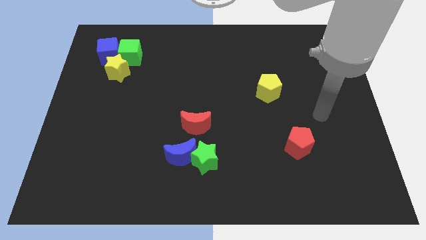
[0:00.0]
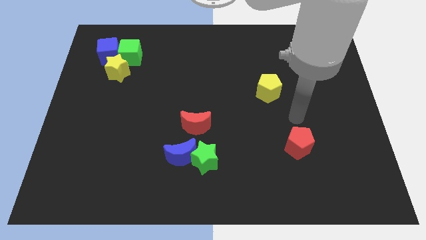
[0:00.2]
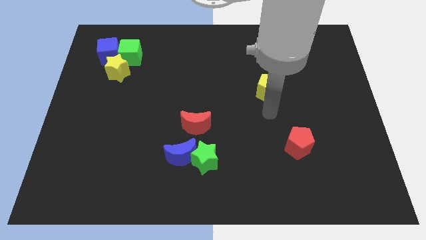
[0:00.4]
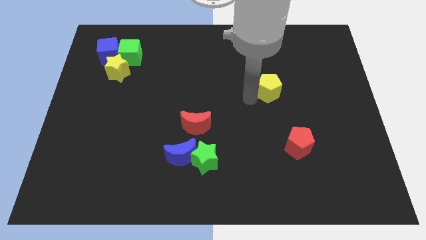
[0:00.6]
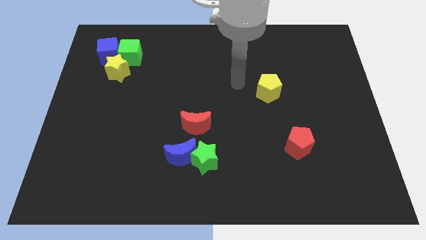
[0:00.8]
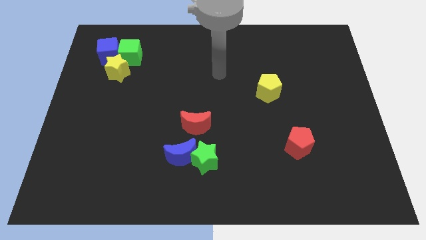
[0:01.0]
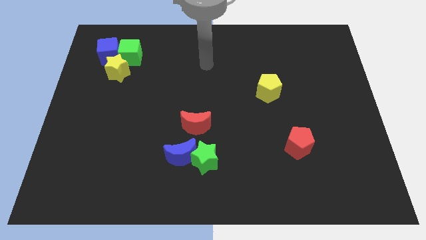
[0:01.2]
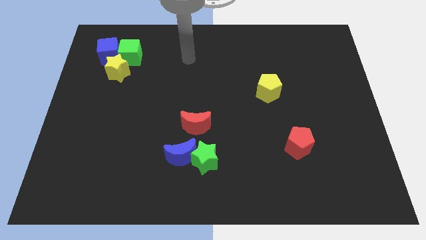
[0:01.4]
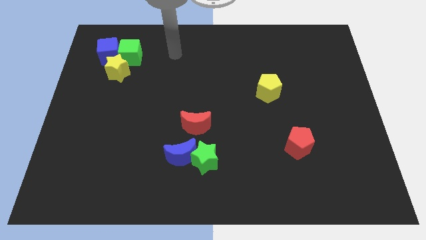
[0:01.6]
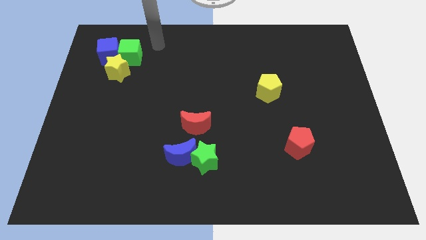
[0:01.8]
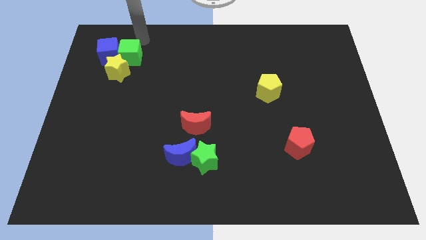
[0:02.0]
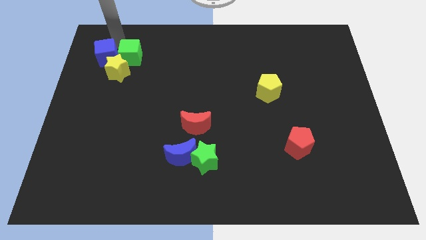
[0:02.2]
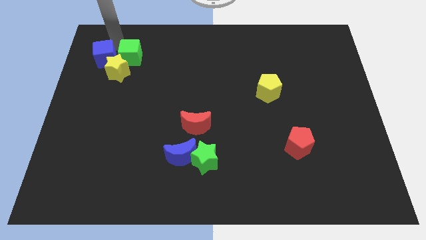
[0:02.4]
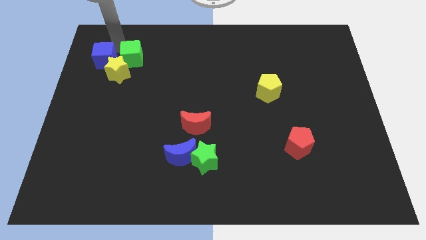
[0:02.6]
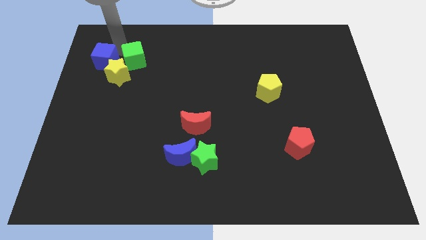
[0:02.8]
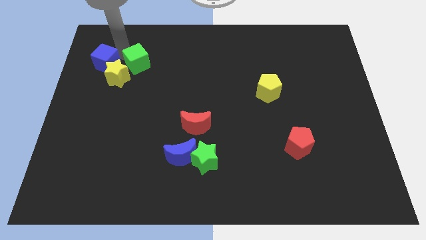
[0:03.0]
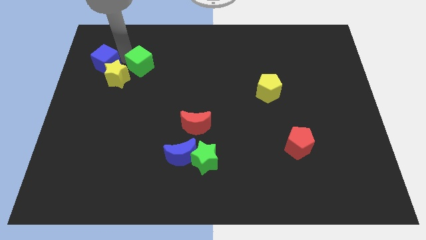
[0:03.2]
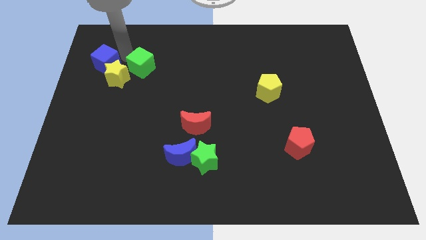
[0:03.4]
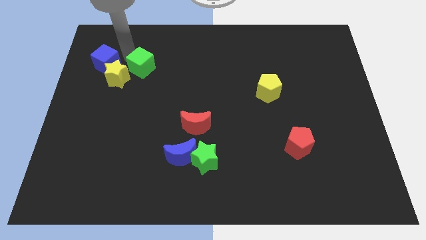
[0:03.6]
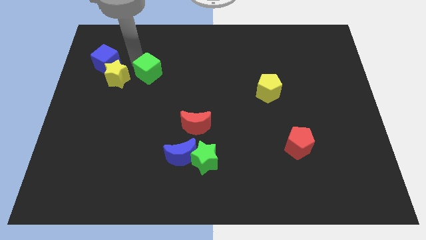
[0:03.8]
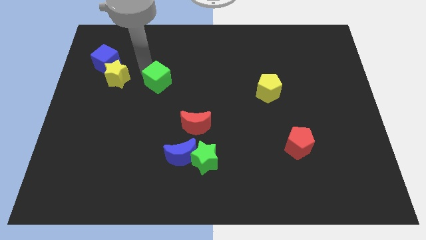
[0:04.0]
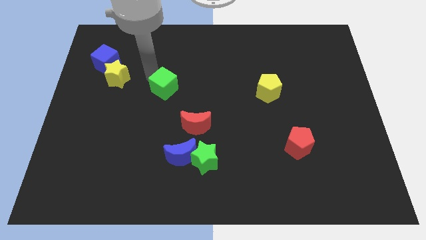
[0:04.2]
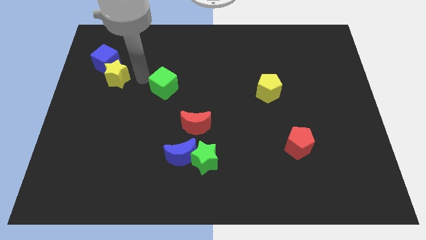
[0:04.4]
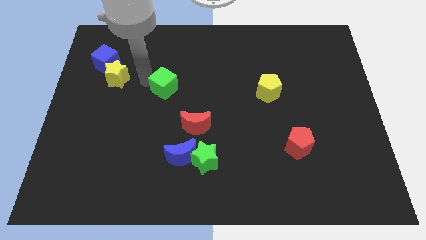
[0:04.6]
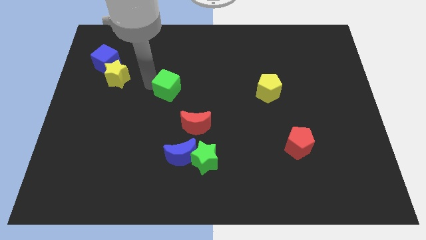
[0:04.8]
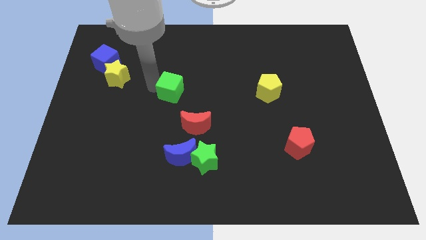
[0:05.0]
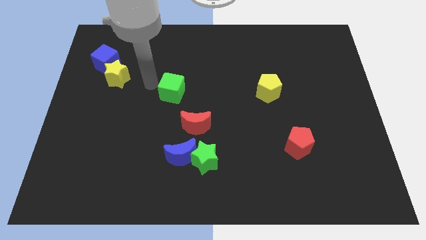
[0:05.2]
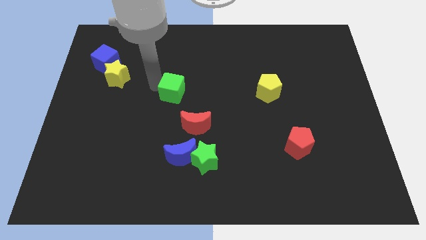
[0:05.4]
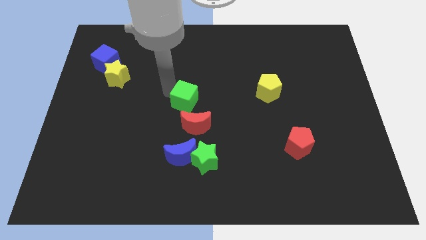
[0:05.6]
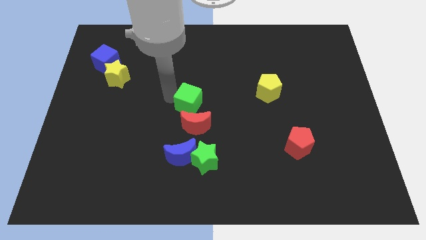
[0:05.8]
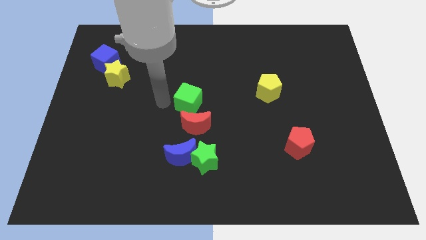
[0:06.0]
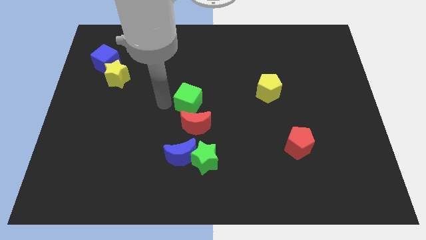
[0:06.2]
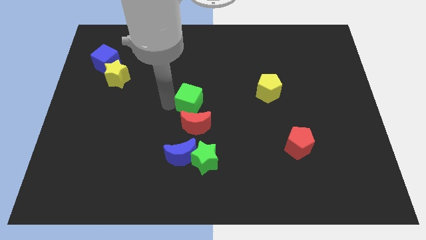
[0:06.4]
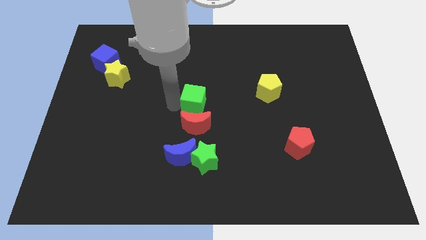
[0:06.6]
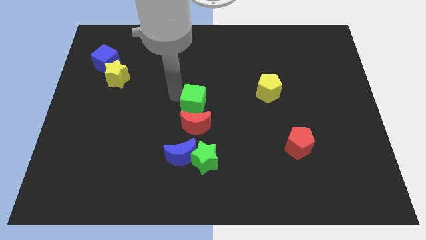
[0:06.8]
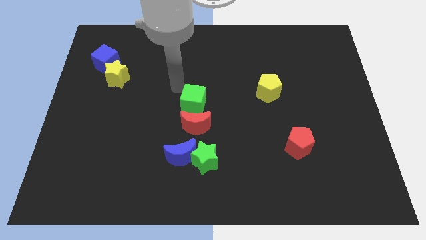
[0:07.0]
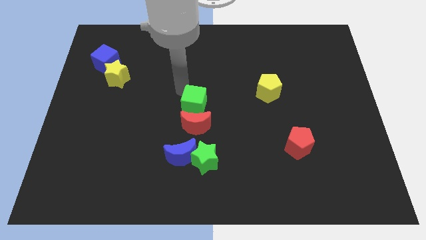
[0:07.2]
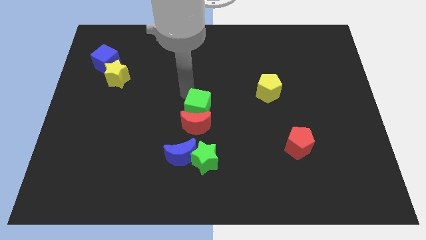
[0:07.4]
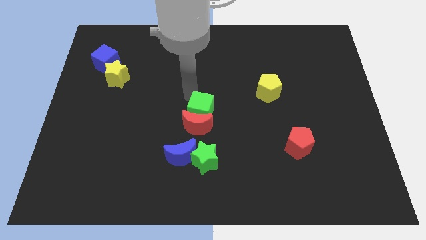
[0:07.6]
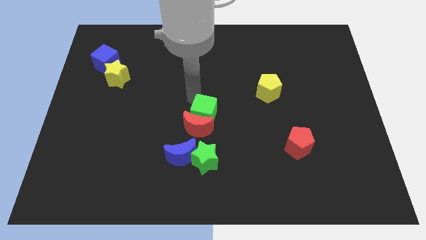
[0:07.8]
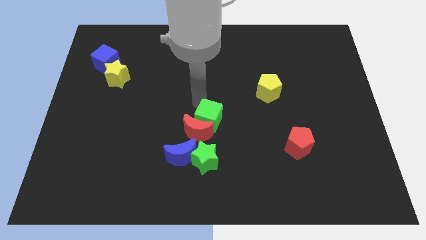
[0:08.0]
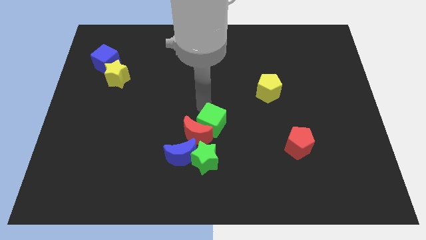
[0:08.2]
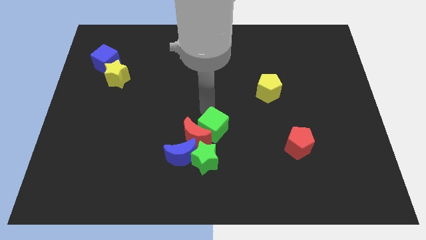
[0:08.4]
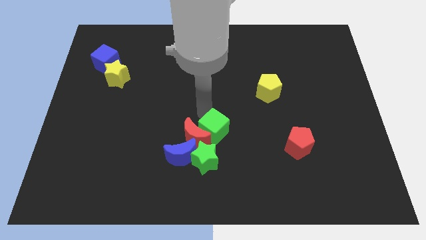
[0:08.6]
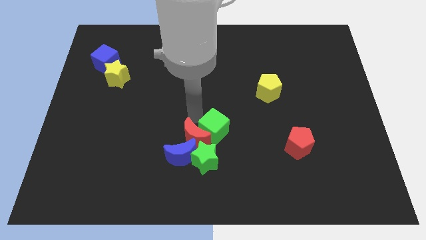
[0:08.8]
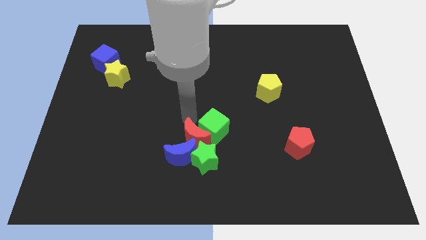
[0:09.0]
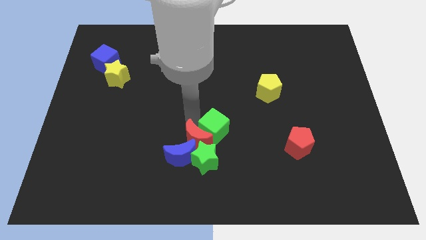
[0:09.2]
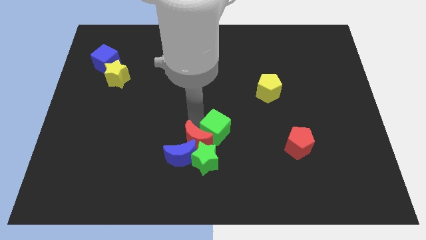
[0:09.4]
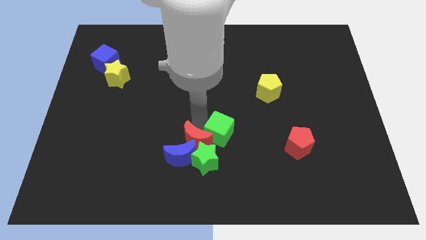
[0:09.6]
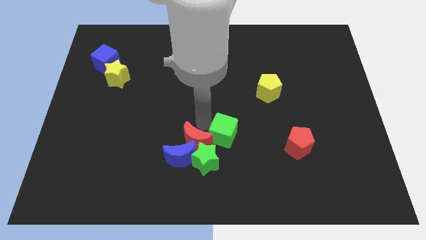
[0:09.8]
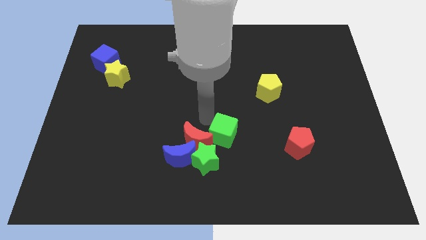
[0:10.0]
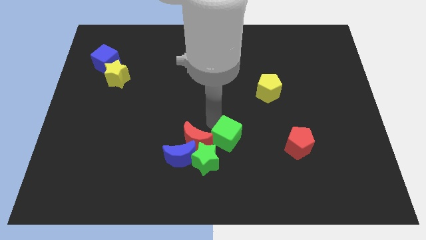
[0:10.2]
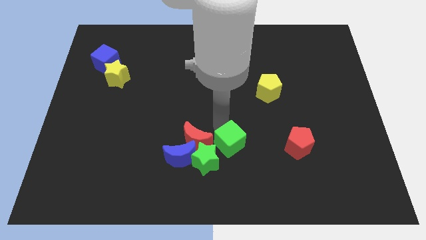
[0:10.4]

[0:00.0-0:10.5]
put the green cube just right of the green star

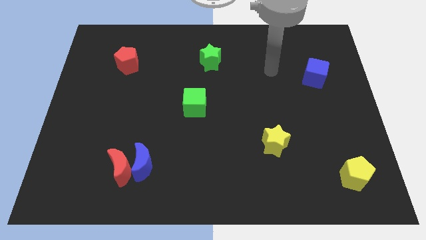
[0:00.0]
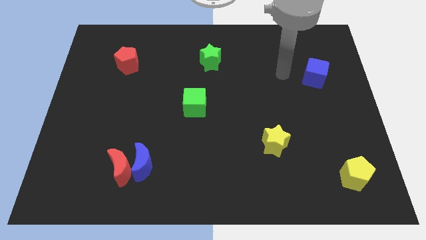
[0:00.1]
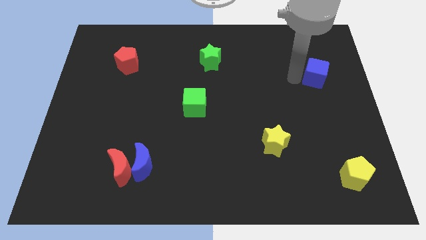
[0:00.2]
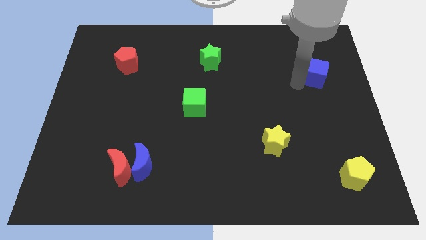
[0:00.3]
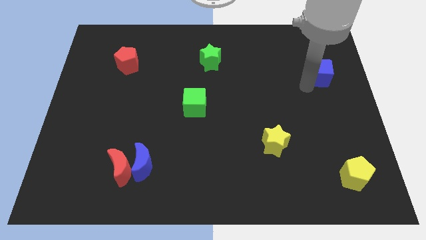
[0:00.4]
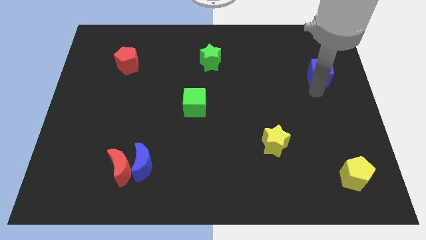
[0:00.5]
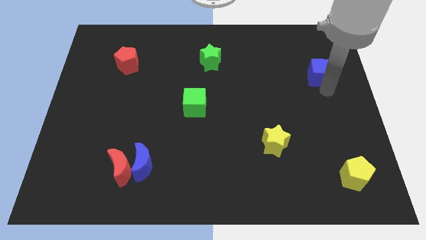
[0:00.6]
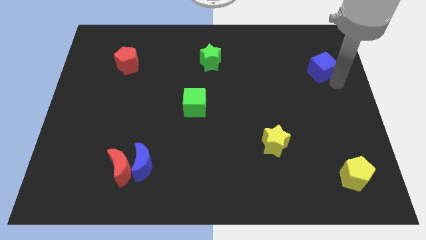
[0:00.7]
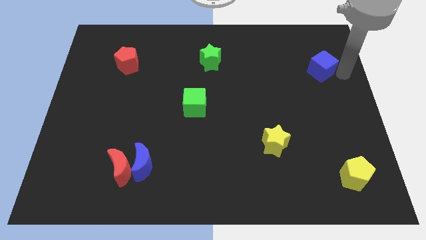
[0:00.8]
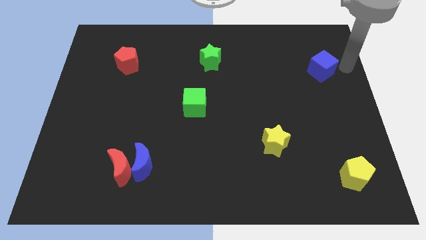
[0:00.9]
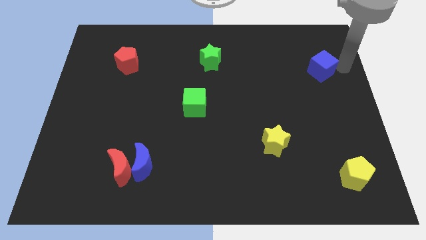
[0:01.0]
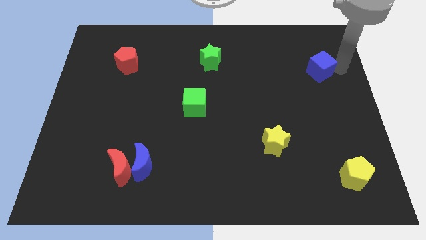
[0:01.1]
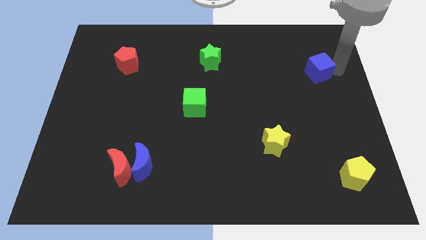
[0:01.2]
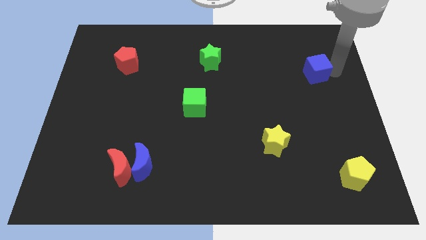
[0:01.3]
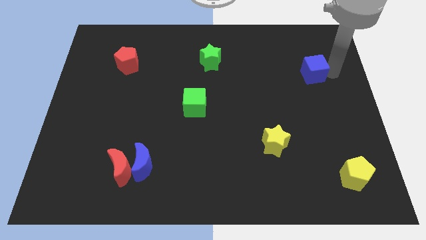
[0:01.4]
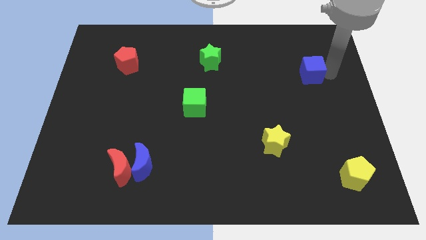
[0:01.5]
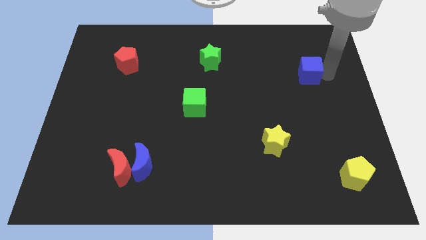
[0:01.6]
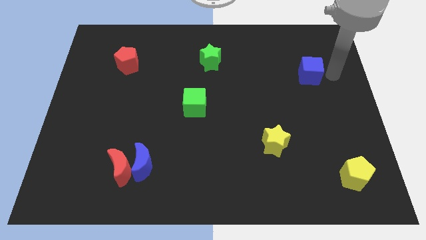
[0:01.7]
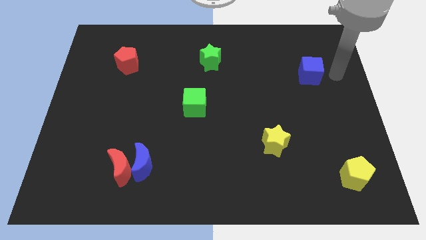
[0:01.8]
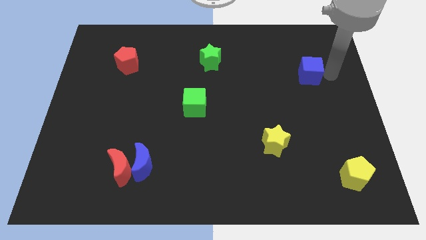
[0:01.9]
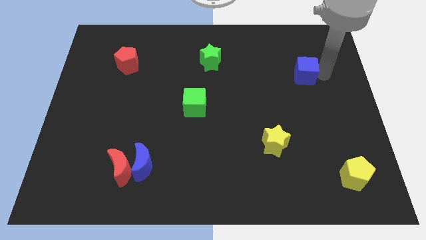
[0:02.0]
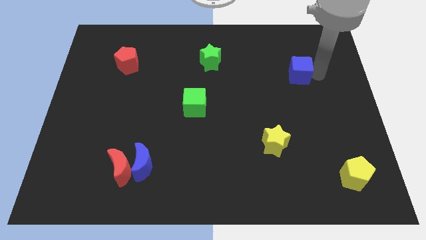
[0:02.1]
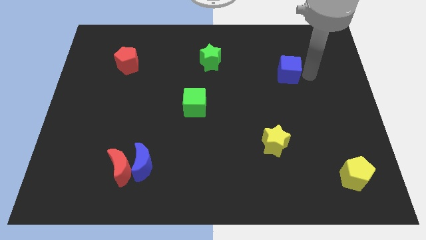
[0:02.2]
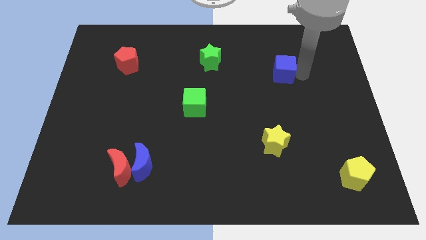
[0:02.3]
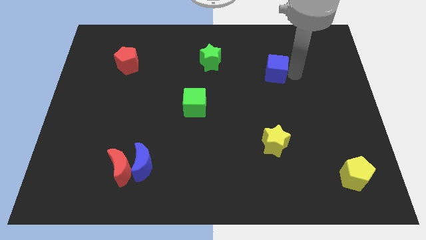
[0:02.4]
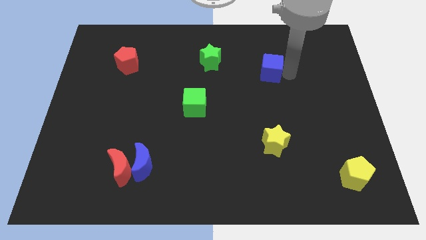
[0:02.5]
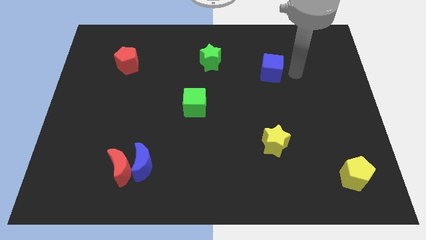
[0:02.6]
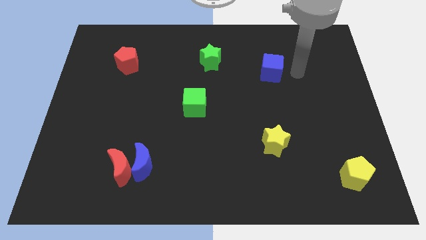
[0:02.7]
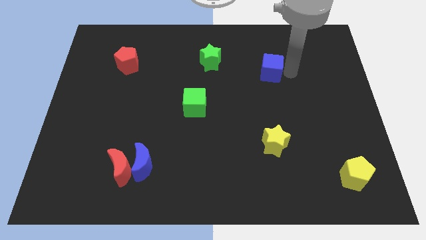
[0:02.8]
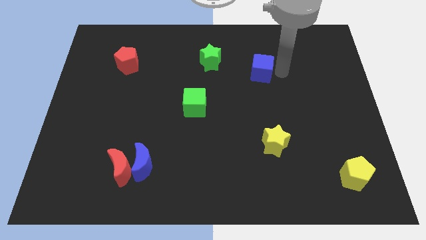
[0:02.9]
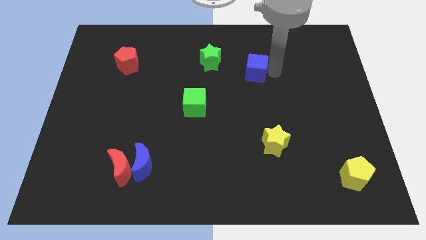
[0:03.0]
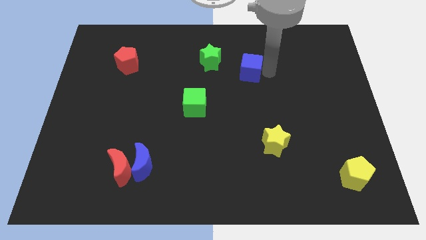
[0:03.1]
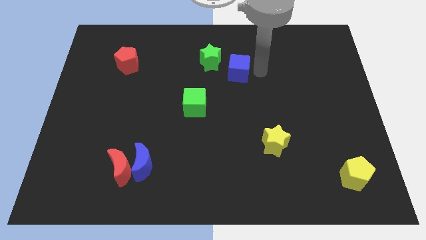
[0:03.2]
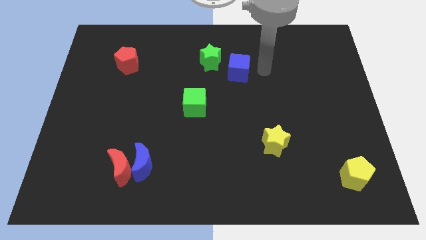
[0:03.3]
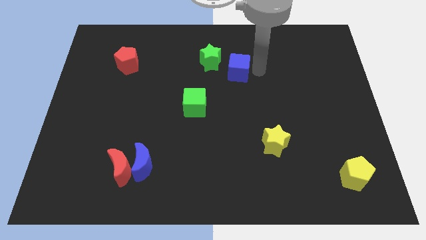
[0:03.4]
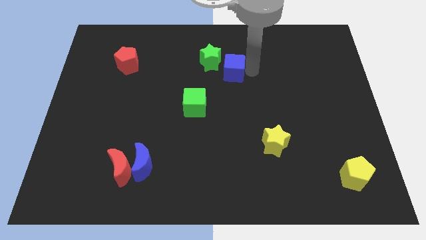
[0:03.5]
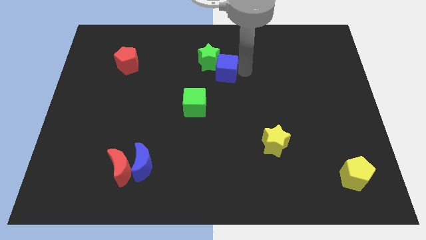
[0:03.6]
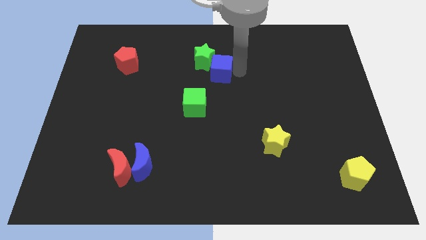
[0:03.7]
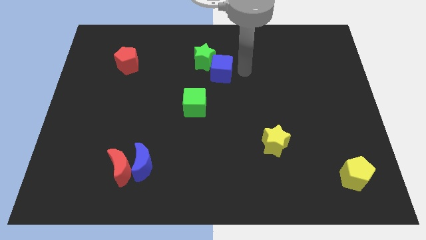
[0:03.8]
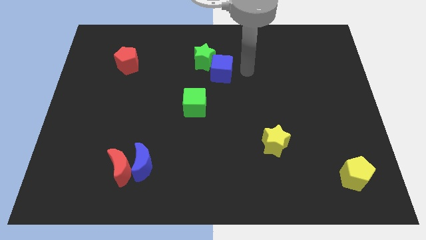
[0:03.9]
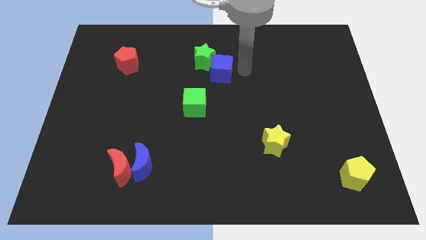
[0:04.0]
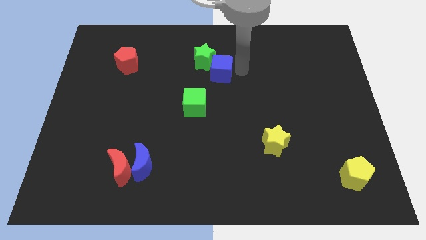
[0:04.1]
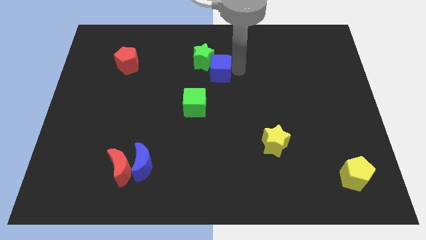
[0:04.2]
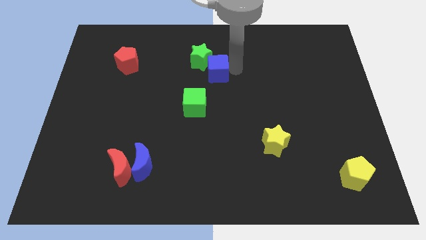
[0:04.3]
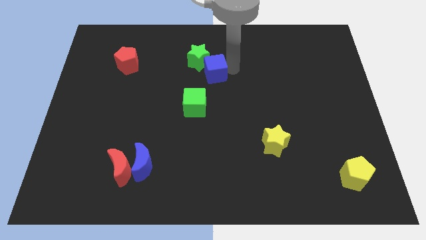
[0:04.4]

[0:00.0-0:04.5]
slide the blue cube to the top side of the green cube
